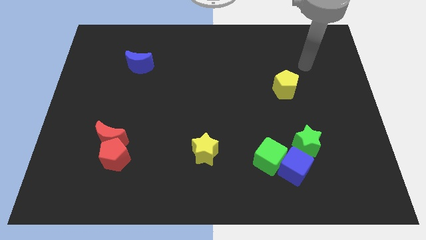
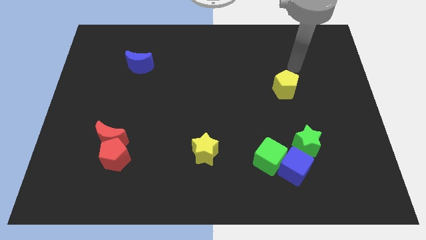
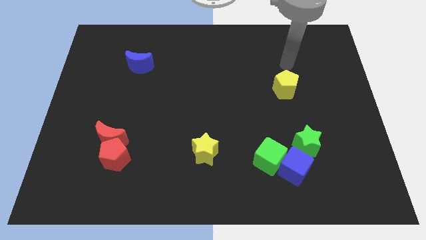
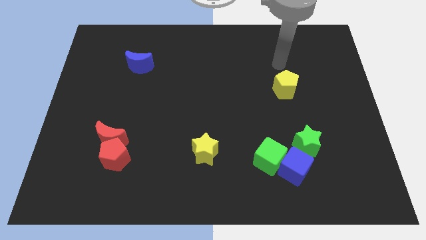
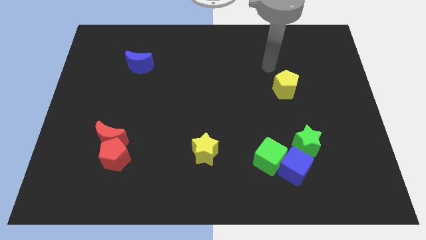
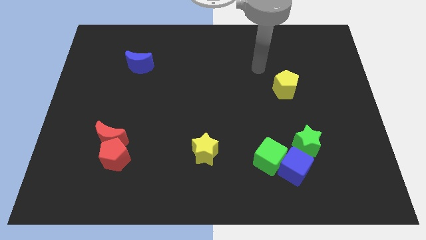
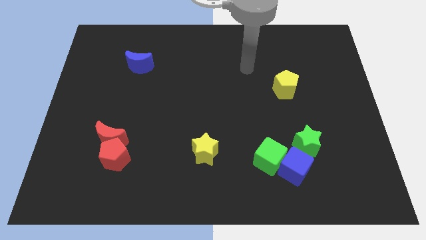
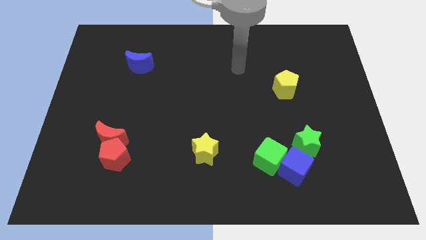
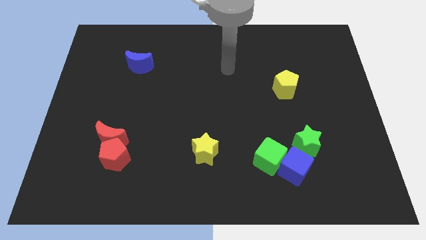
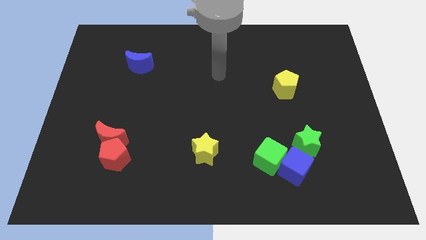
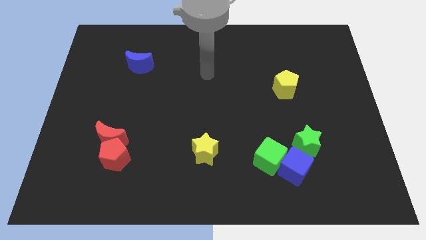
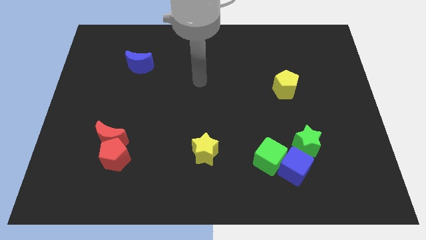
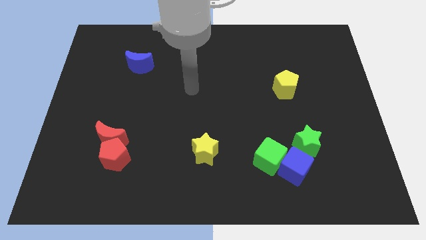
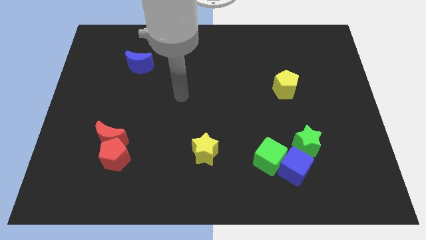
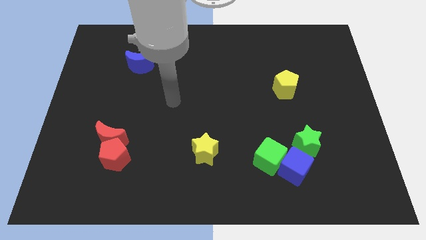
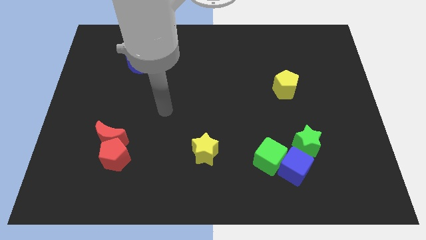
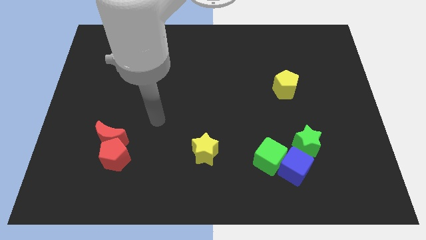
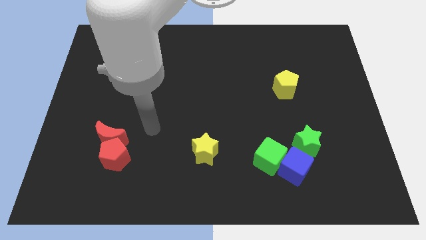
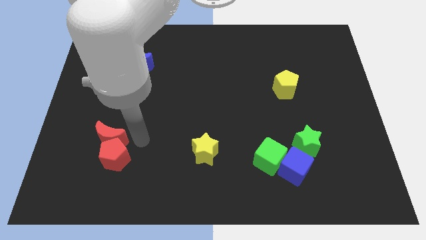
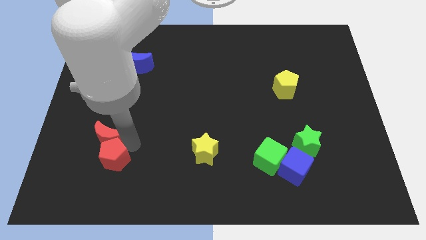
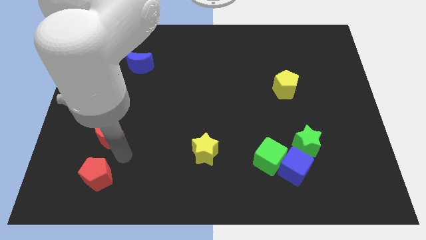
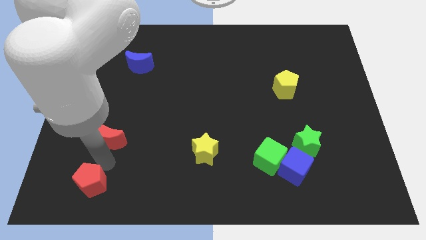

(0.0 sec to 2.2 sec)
pull the red moon apart from the red pentagon

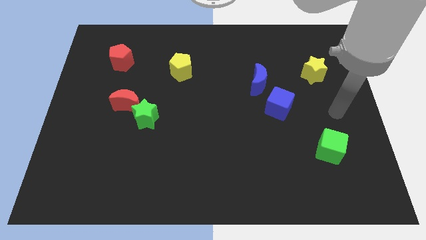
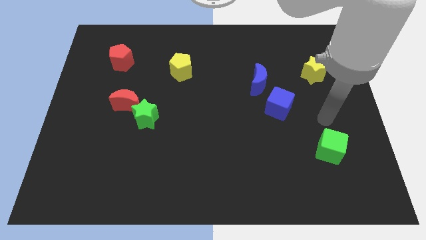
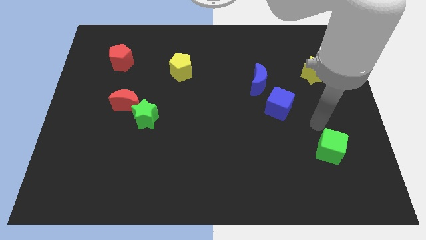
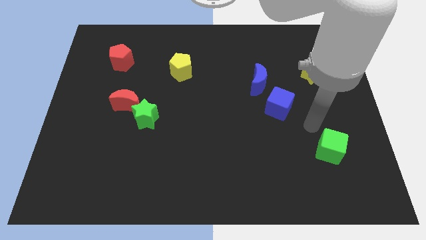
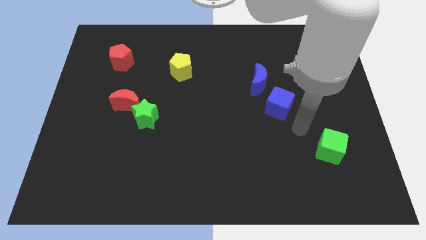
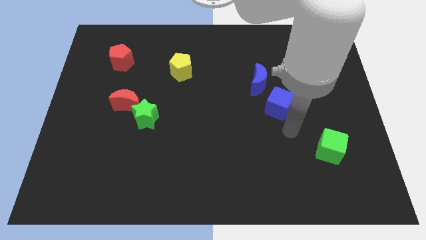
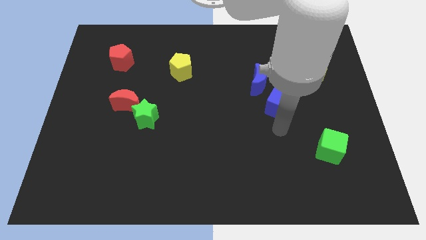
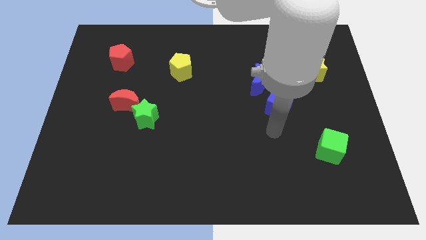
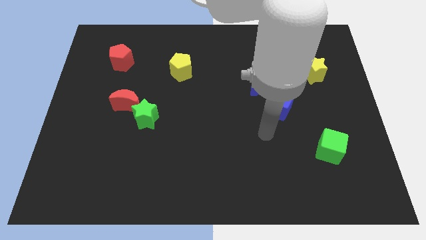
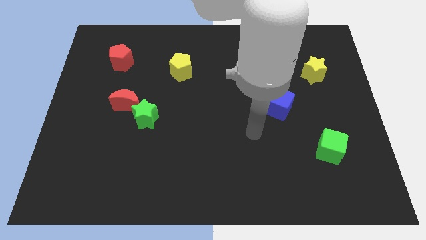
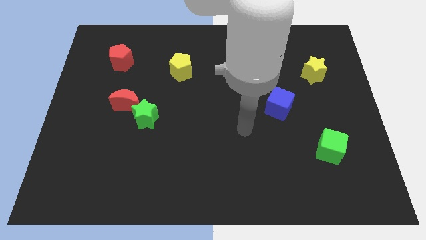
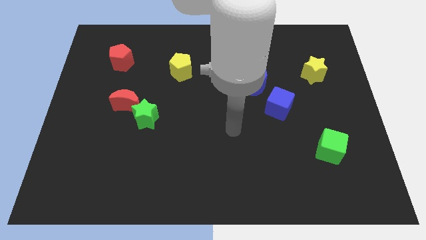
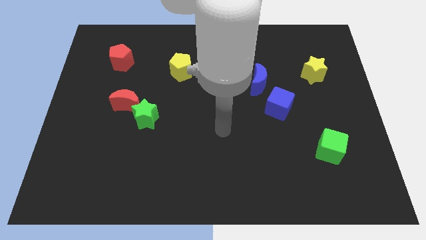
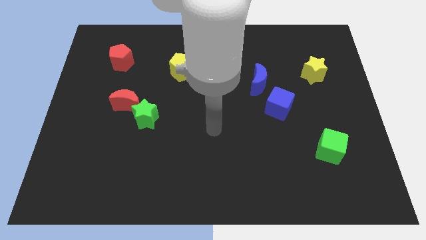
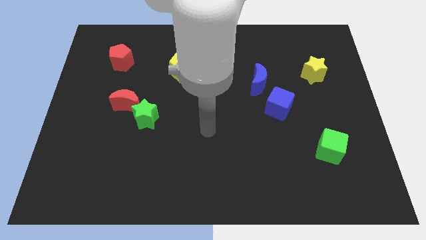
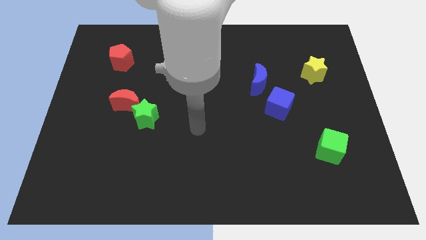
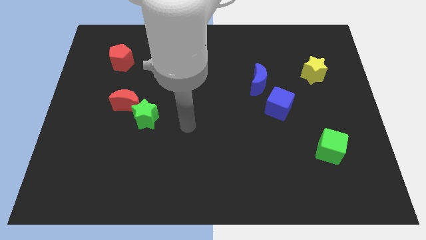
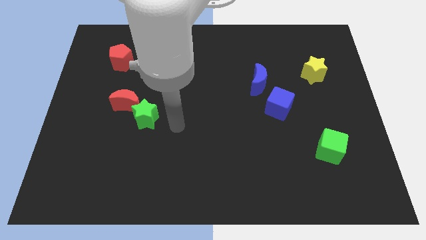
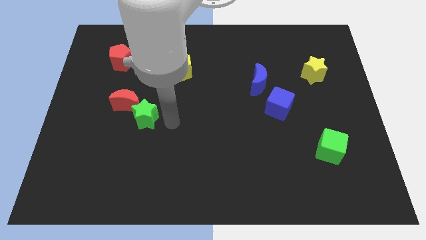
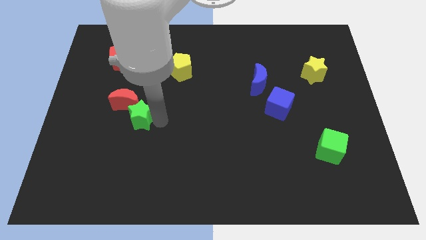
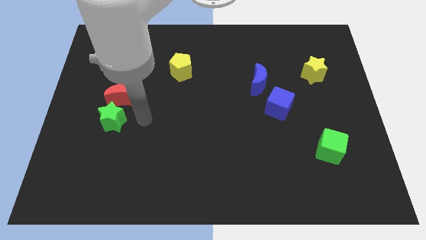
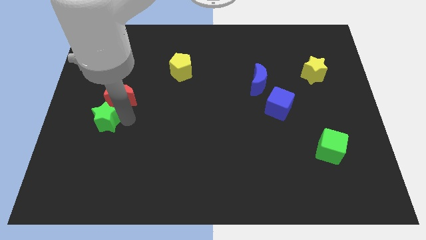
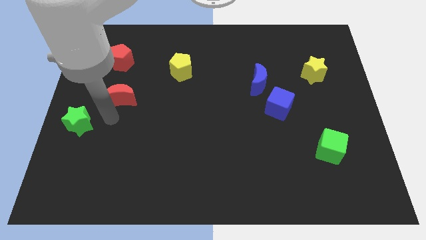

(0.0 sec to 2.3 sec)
move the red moon away from the green star

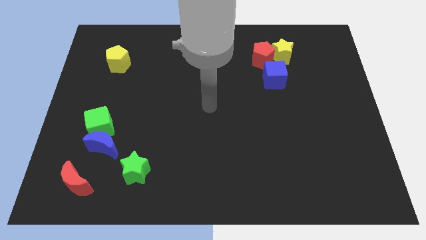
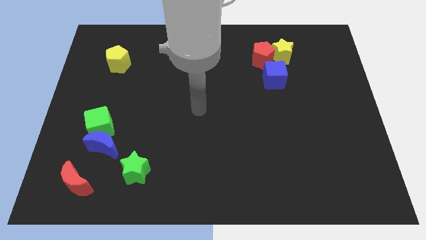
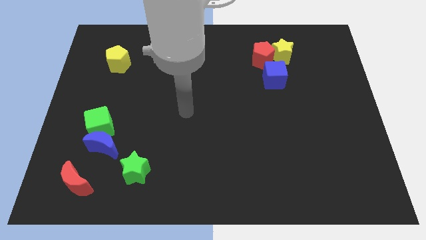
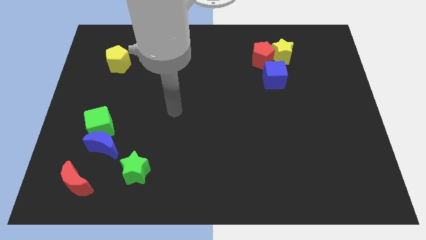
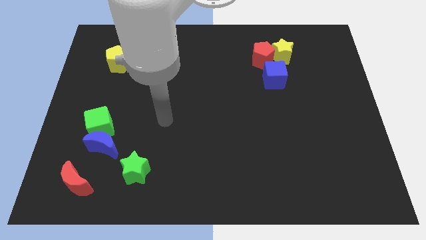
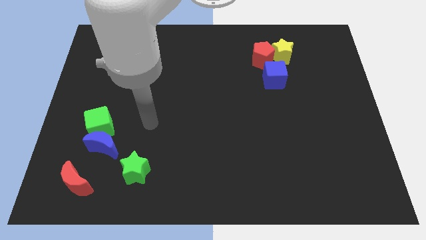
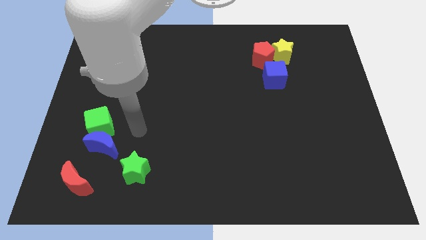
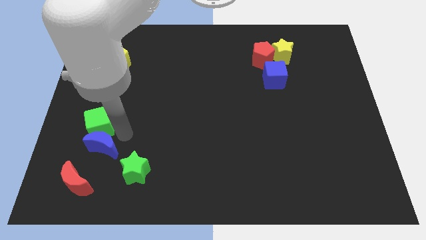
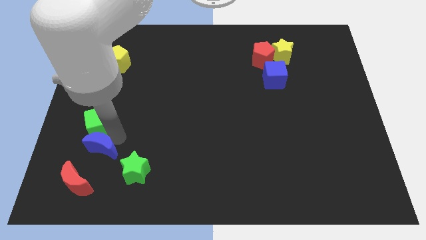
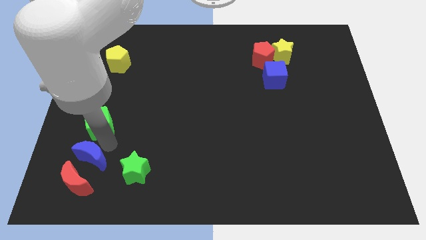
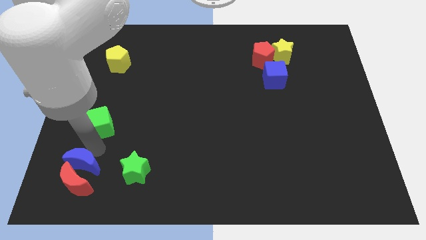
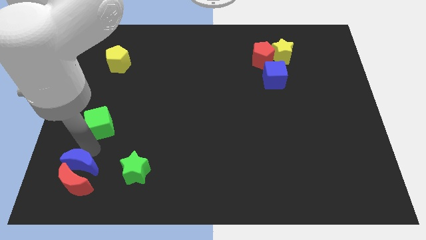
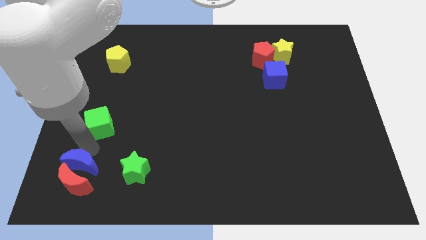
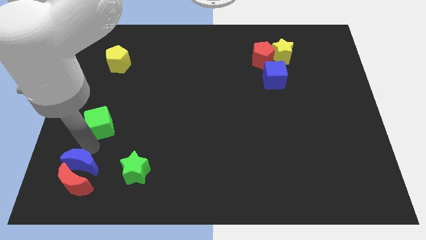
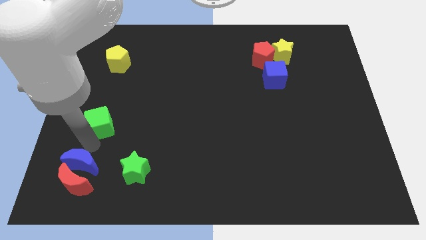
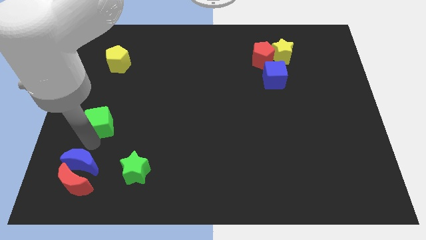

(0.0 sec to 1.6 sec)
move the green cube away from the blue moon

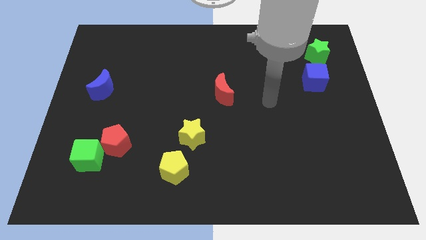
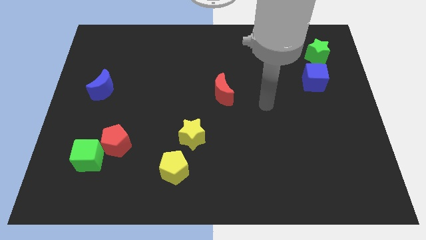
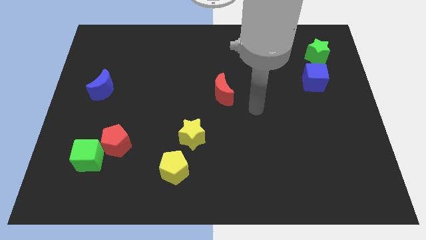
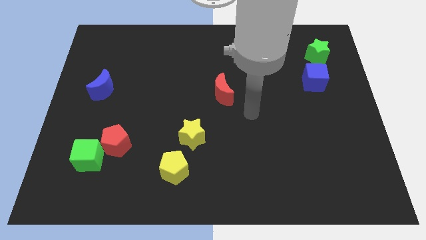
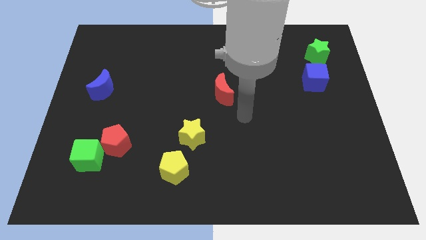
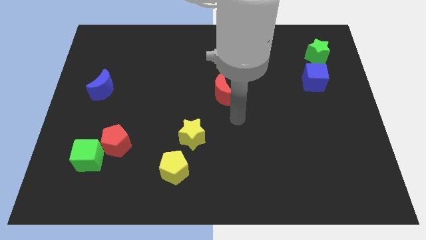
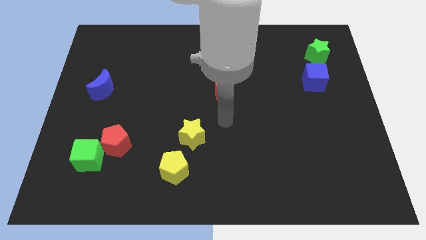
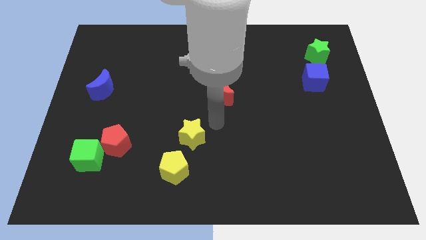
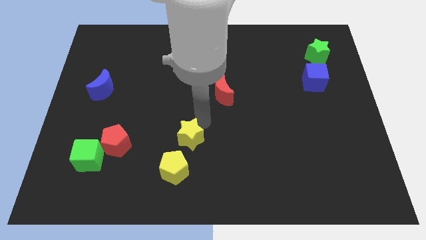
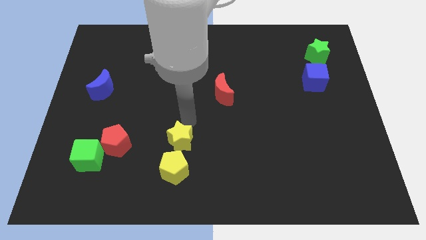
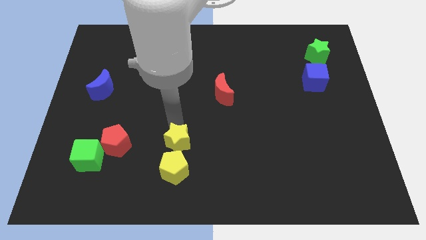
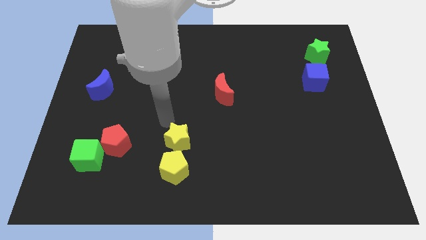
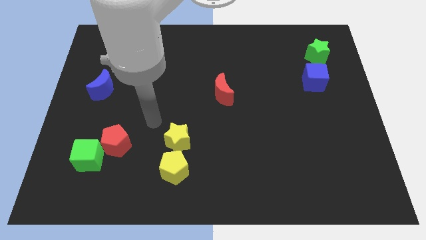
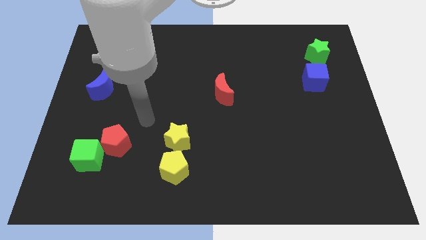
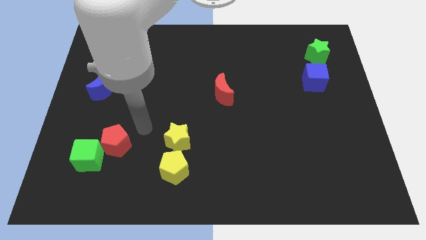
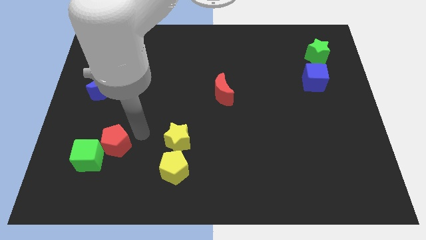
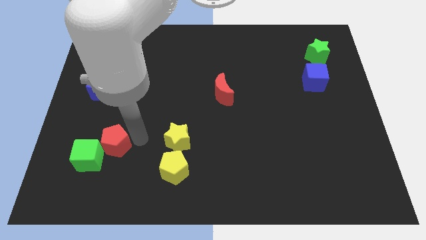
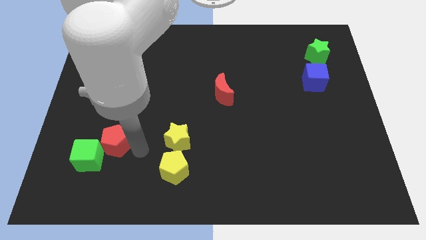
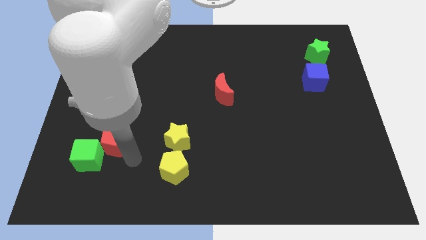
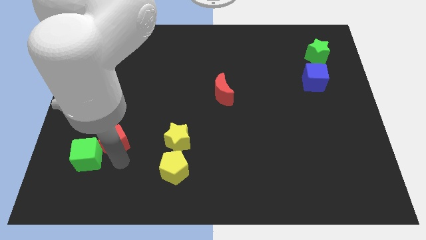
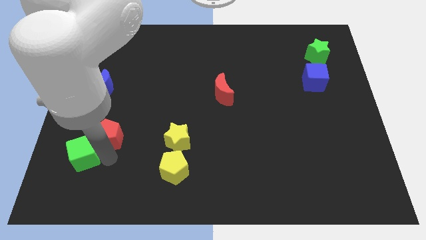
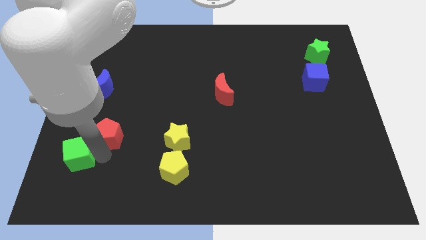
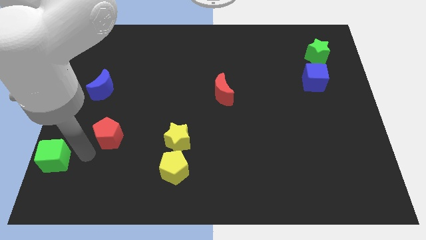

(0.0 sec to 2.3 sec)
pull the red pentagon apart from the green cube

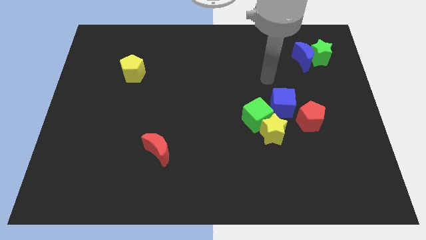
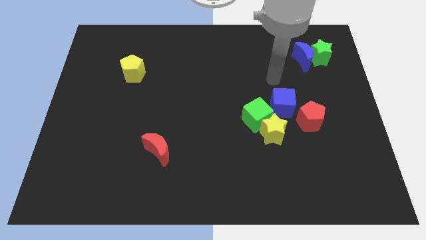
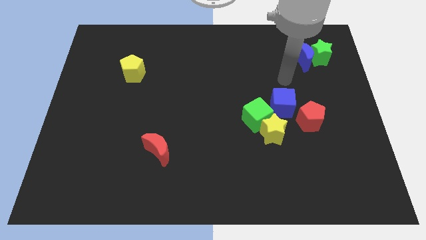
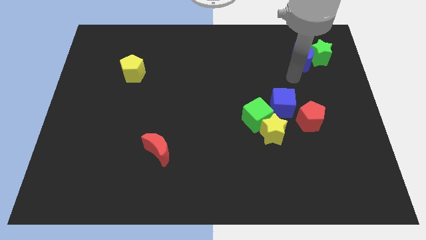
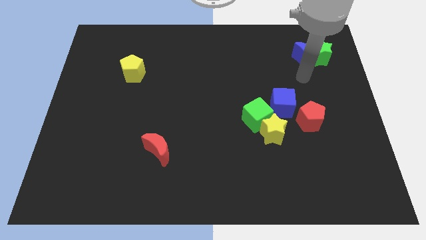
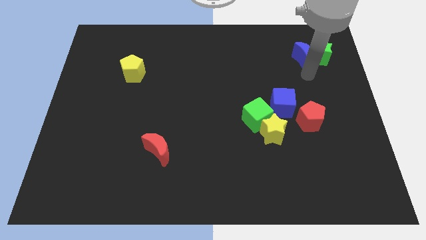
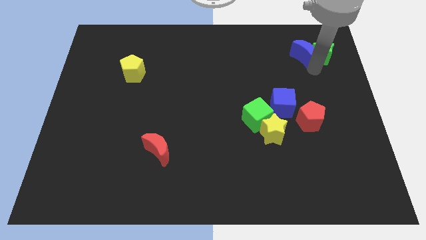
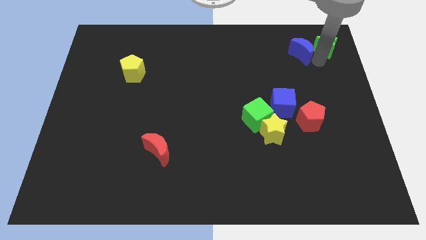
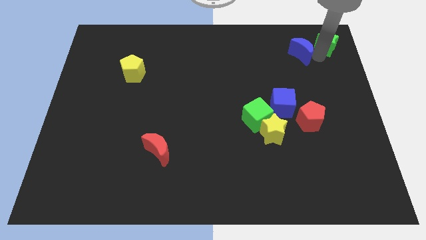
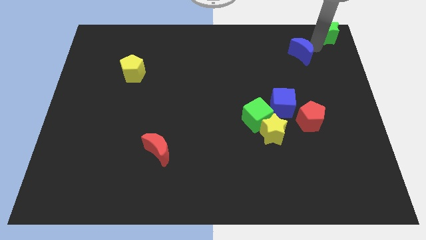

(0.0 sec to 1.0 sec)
pull the blue moon apart from the green star
